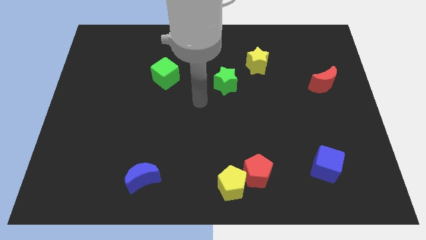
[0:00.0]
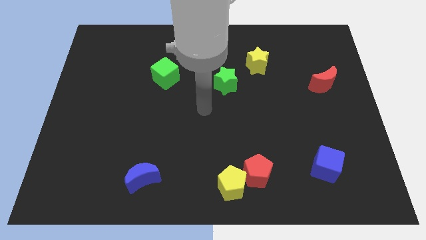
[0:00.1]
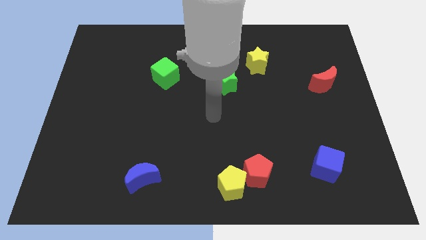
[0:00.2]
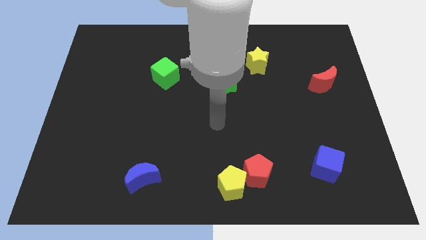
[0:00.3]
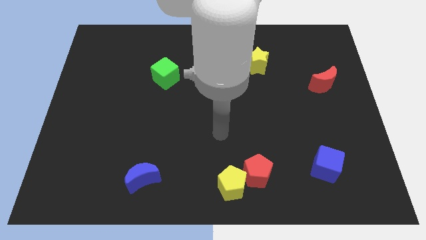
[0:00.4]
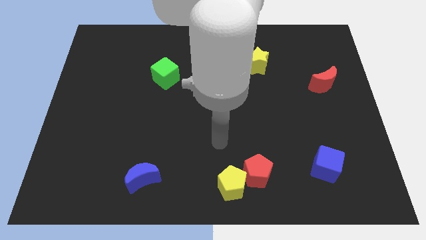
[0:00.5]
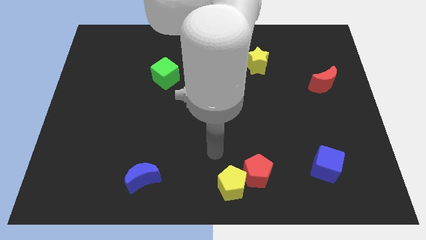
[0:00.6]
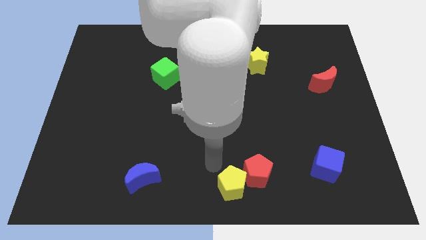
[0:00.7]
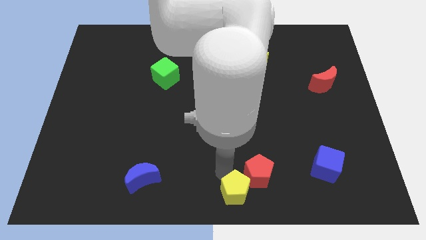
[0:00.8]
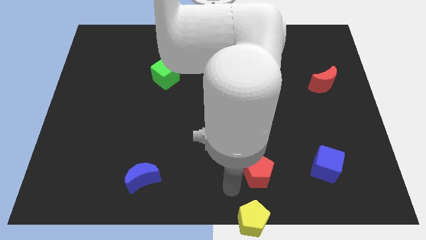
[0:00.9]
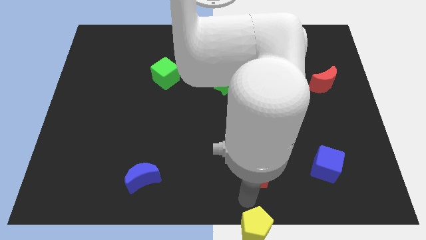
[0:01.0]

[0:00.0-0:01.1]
move the red pentagon away from the yellow pentagon

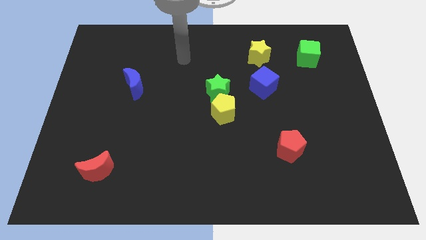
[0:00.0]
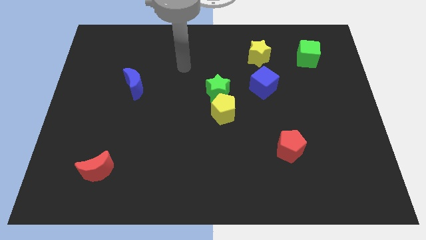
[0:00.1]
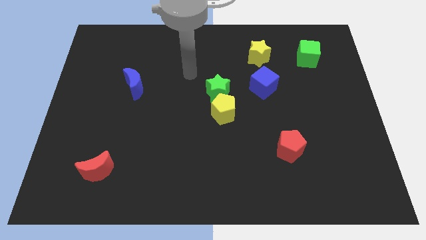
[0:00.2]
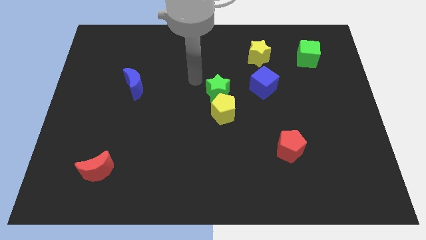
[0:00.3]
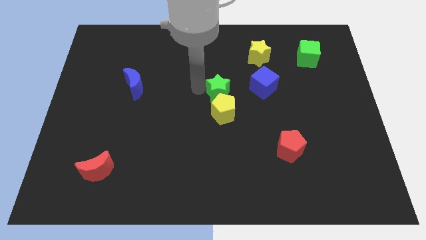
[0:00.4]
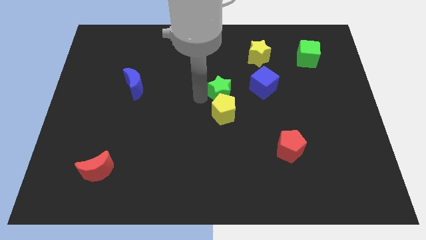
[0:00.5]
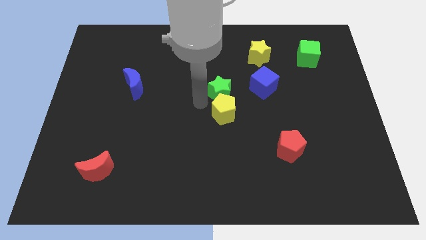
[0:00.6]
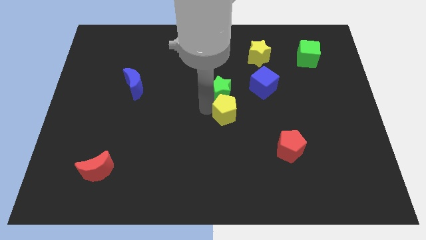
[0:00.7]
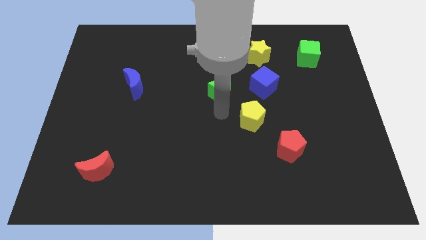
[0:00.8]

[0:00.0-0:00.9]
move the green star away from the yellow pentagon

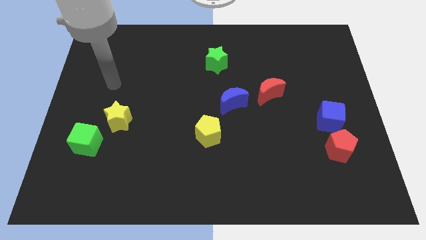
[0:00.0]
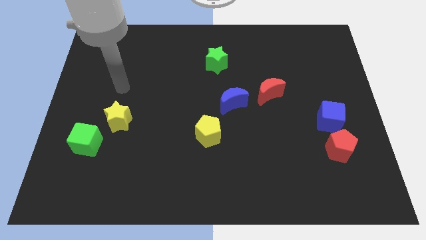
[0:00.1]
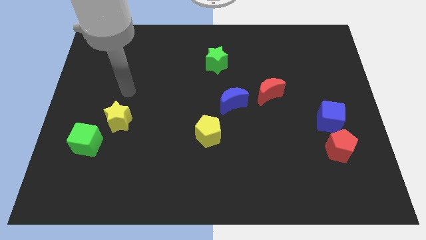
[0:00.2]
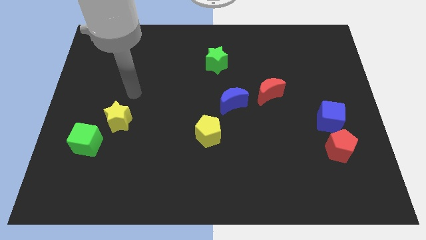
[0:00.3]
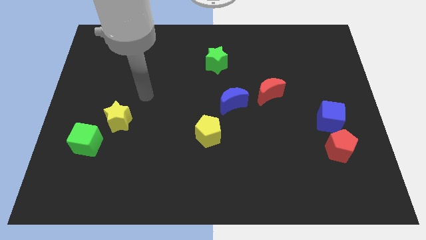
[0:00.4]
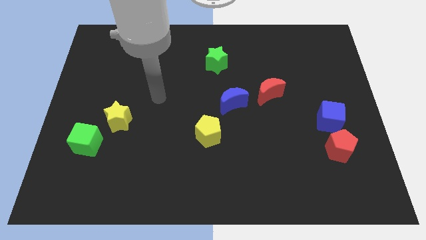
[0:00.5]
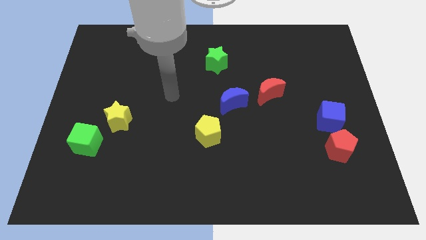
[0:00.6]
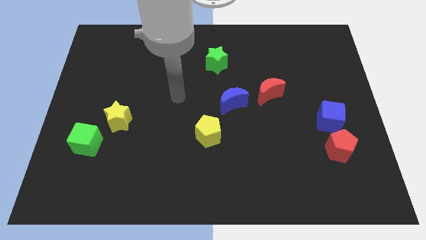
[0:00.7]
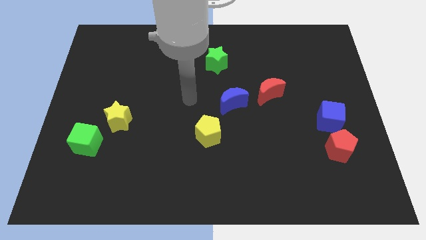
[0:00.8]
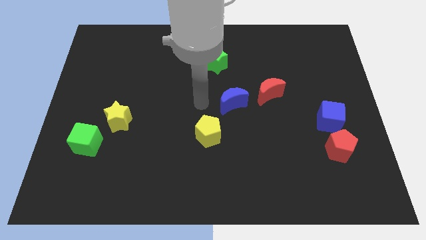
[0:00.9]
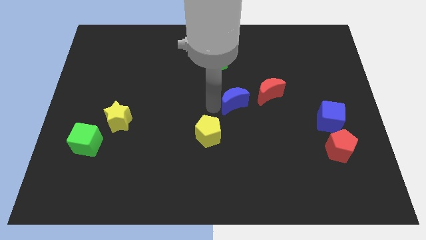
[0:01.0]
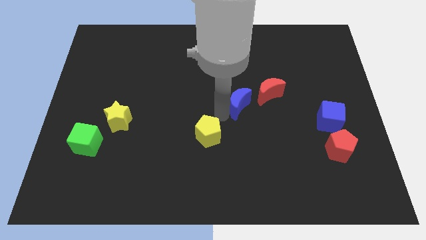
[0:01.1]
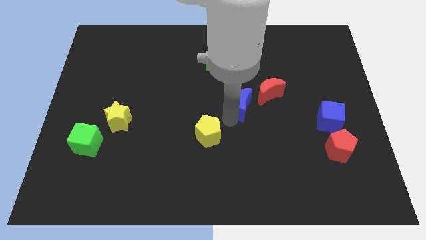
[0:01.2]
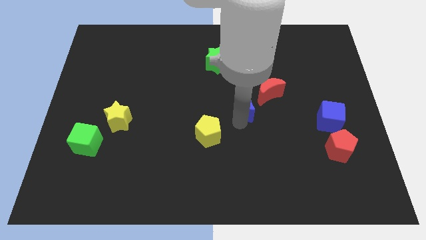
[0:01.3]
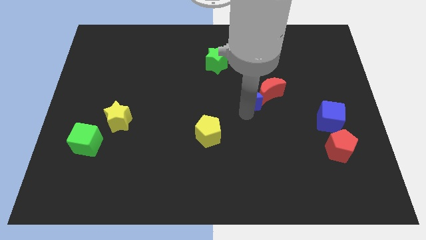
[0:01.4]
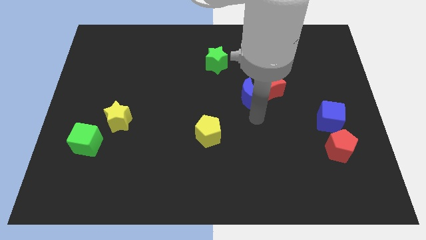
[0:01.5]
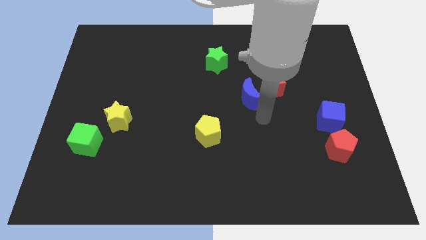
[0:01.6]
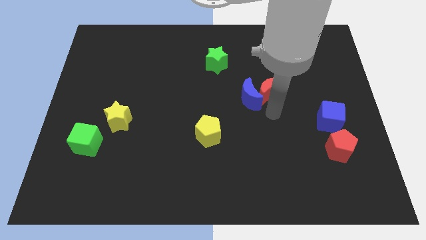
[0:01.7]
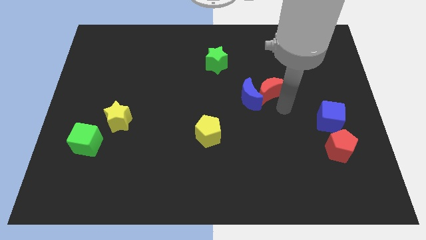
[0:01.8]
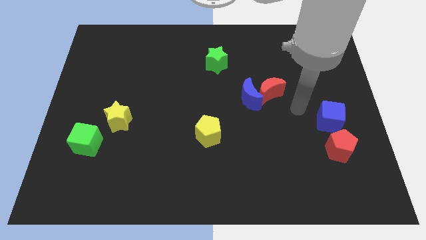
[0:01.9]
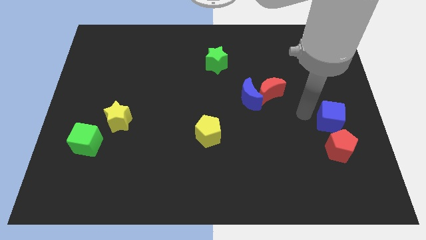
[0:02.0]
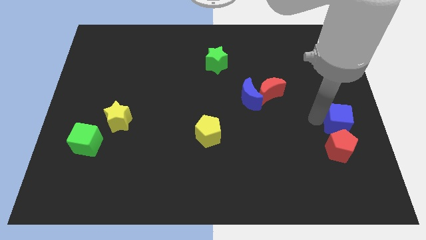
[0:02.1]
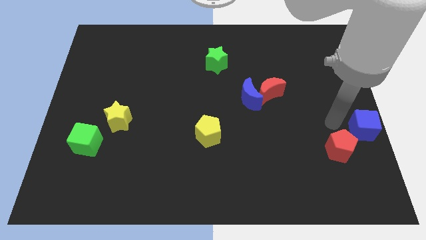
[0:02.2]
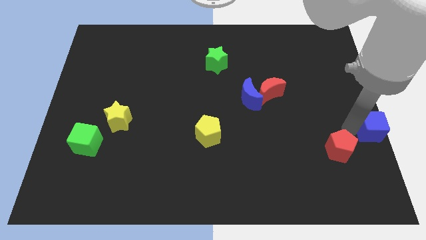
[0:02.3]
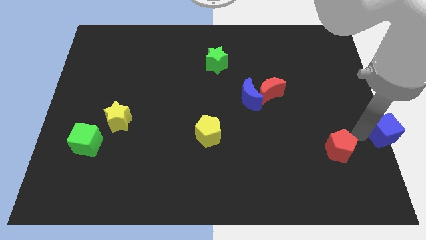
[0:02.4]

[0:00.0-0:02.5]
move the red pentagon away from the blue cube

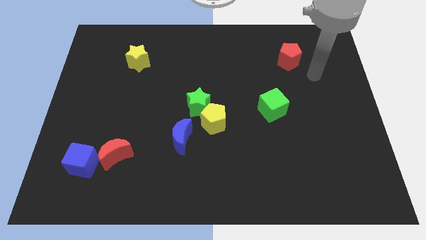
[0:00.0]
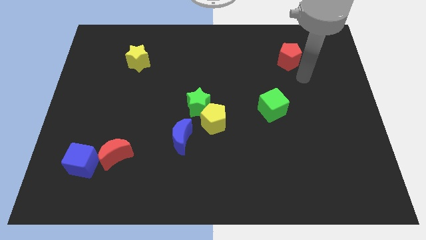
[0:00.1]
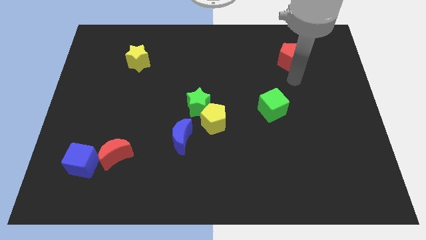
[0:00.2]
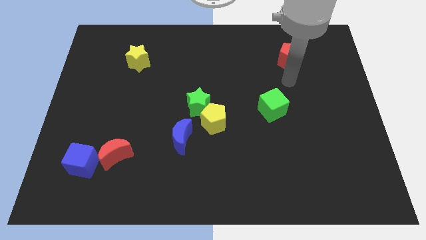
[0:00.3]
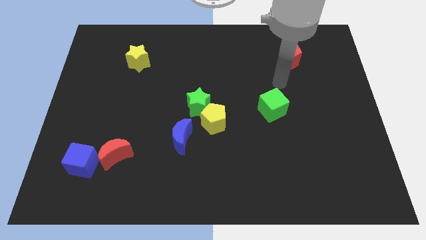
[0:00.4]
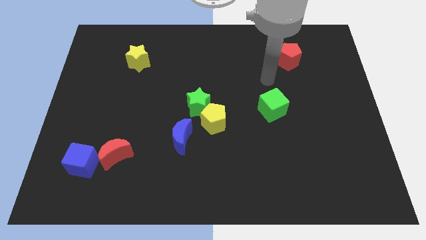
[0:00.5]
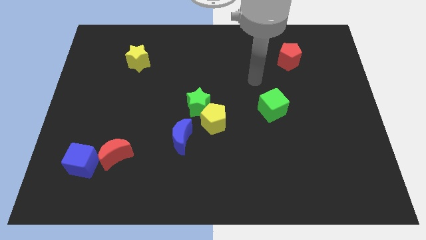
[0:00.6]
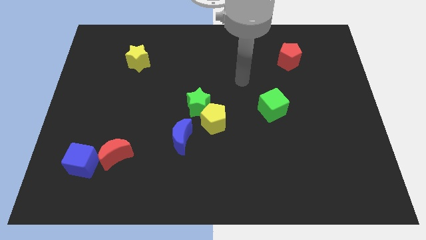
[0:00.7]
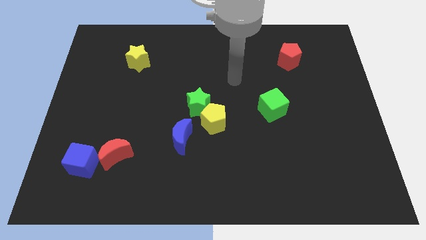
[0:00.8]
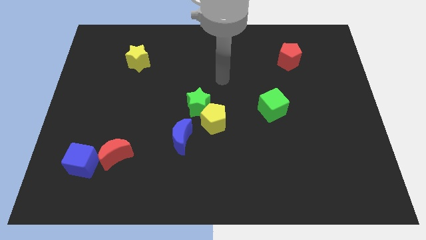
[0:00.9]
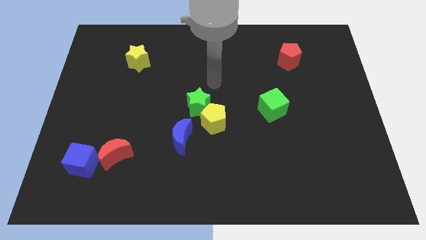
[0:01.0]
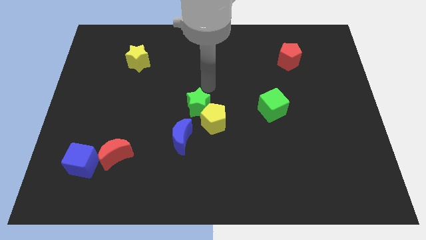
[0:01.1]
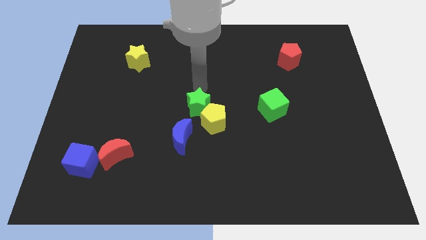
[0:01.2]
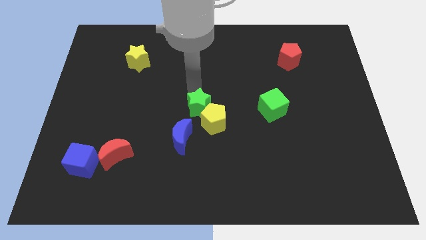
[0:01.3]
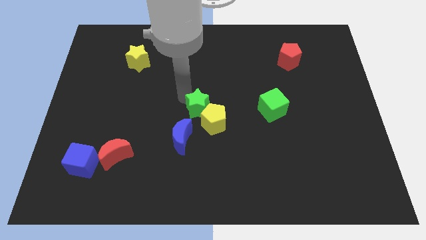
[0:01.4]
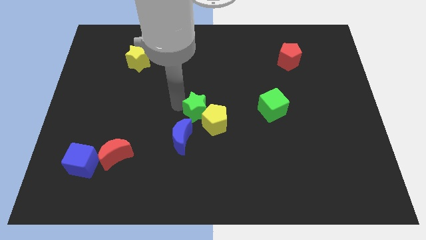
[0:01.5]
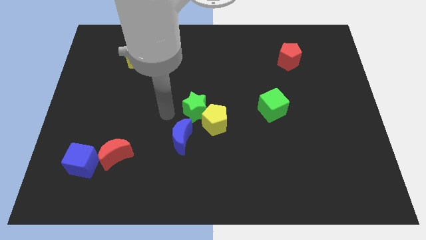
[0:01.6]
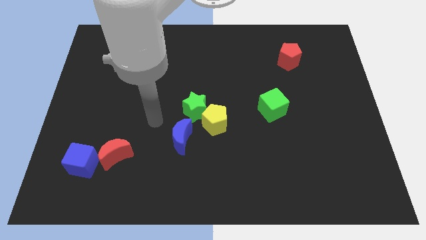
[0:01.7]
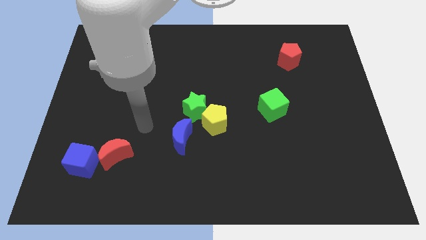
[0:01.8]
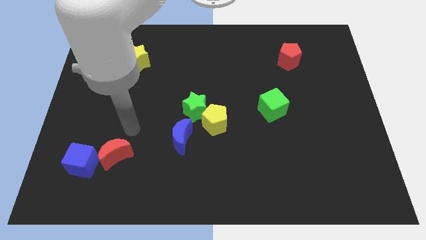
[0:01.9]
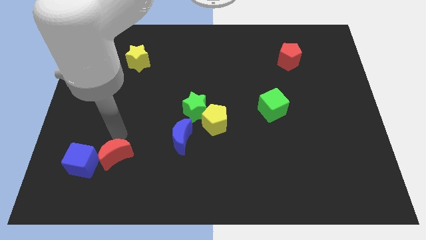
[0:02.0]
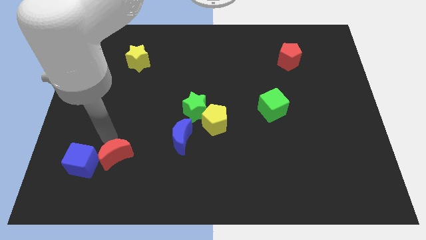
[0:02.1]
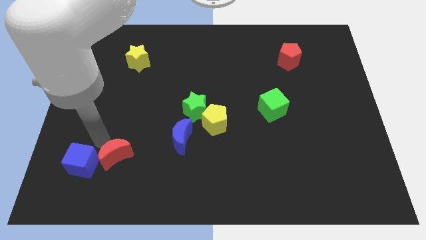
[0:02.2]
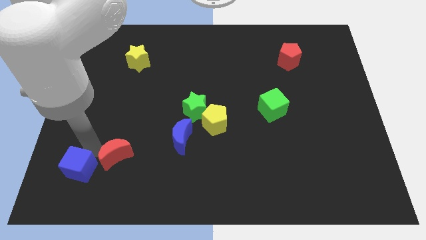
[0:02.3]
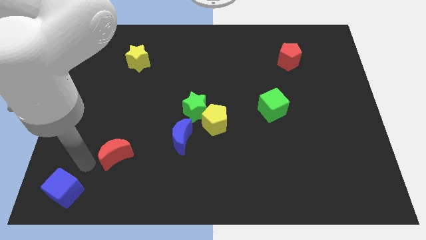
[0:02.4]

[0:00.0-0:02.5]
move the red moon away from the blue cube

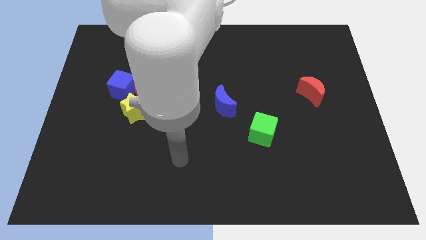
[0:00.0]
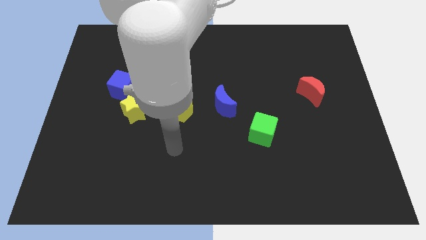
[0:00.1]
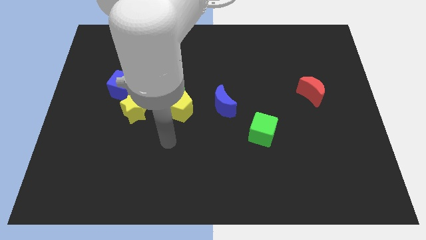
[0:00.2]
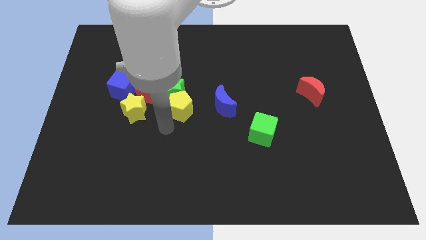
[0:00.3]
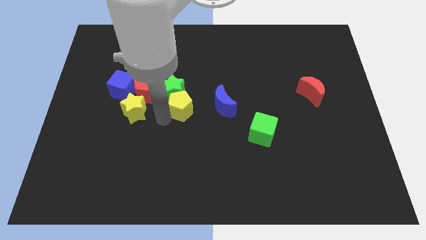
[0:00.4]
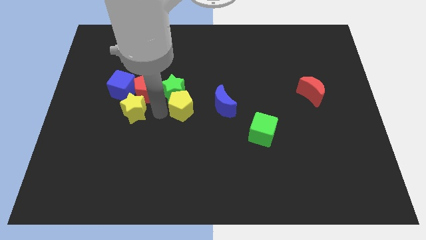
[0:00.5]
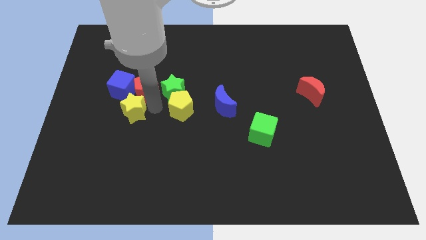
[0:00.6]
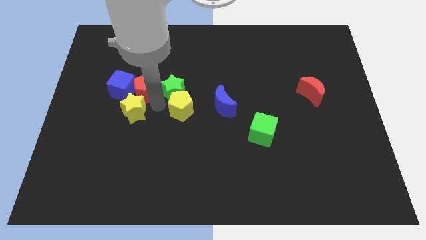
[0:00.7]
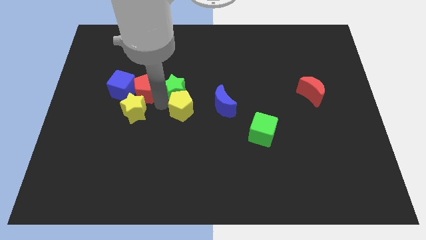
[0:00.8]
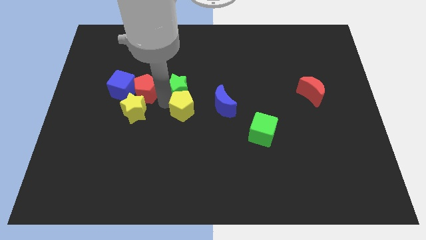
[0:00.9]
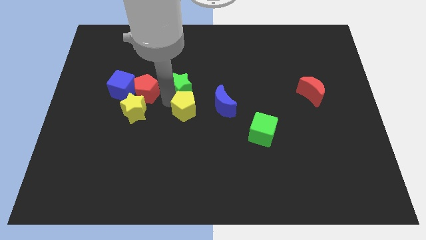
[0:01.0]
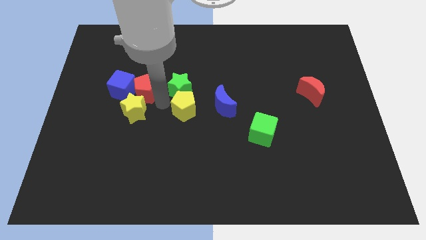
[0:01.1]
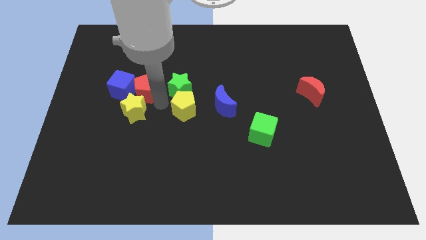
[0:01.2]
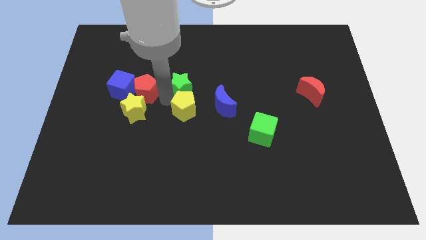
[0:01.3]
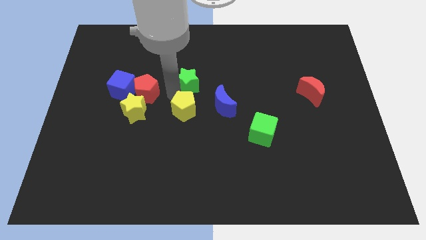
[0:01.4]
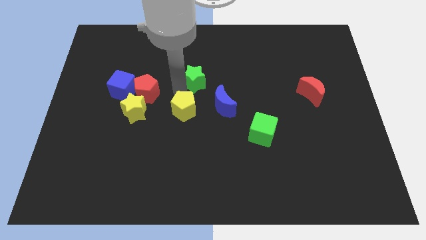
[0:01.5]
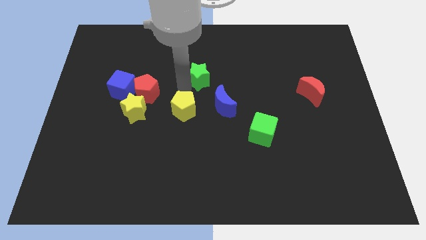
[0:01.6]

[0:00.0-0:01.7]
separate the green star from the yellow pentagon and red pentagon

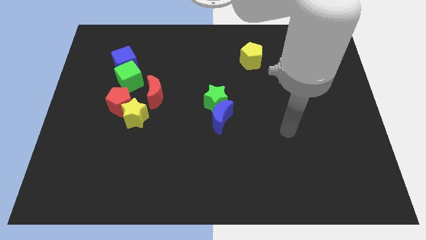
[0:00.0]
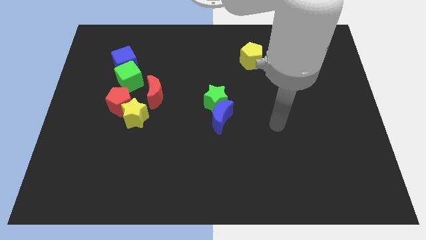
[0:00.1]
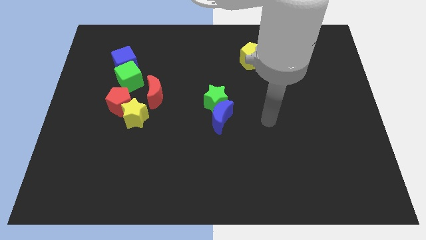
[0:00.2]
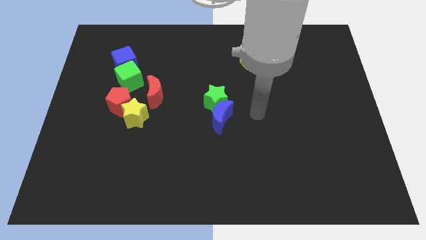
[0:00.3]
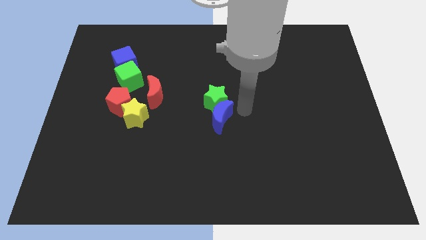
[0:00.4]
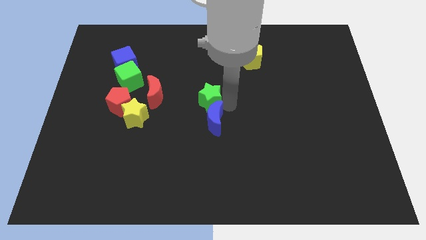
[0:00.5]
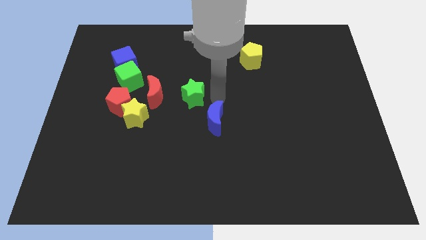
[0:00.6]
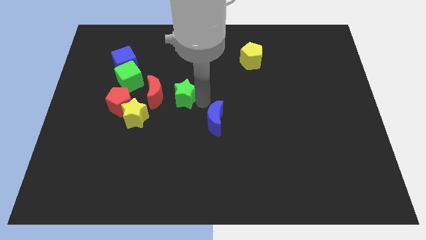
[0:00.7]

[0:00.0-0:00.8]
pull the blue moon apart from the green star
